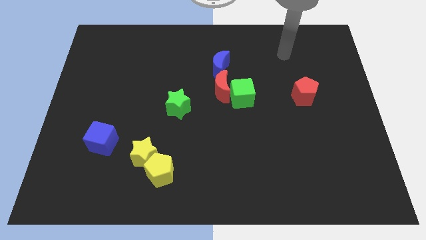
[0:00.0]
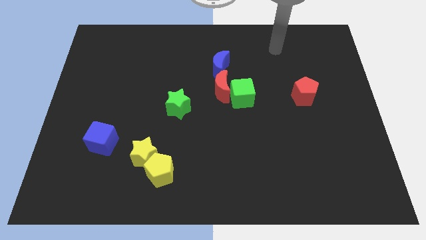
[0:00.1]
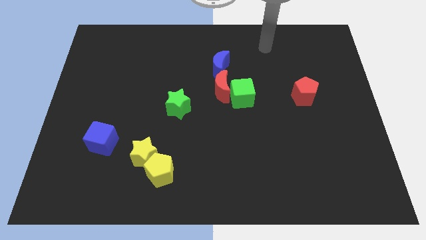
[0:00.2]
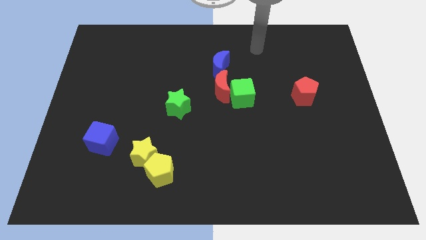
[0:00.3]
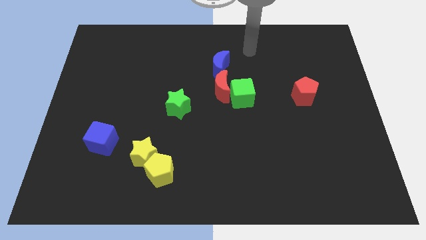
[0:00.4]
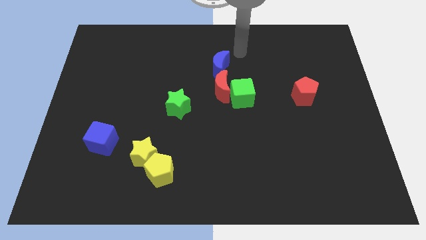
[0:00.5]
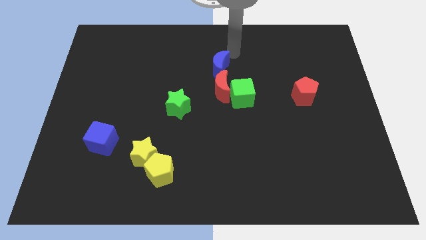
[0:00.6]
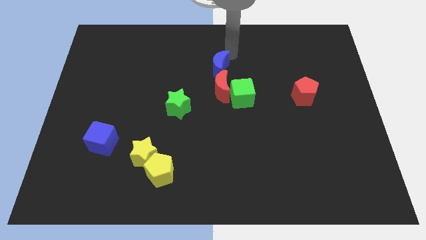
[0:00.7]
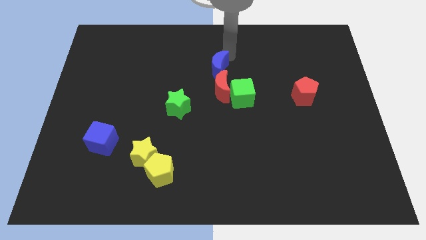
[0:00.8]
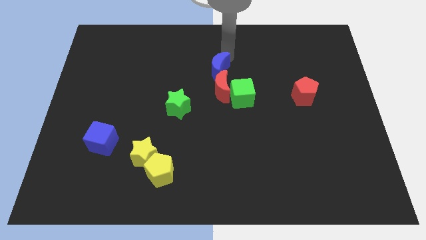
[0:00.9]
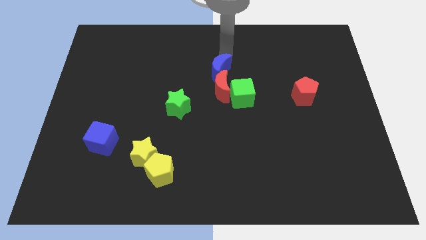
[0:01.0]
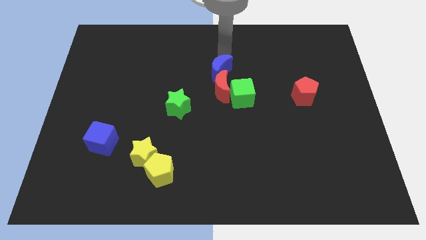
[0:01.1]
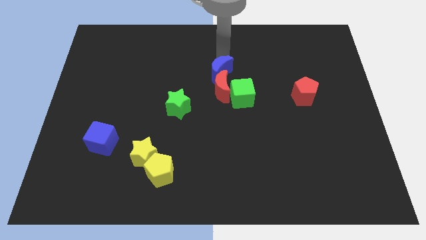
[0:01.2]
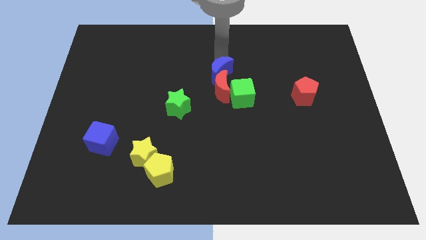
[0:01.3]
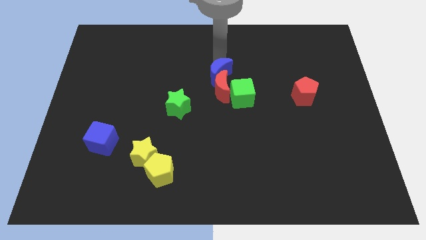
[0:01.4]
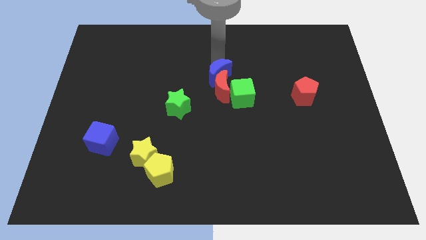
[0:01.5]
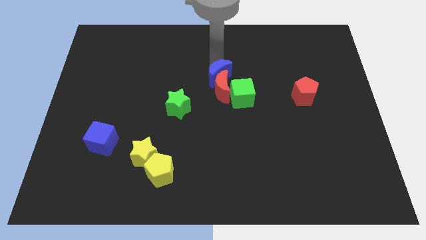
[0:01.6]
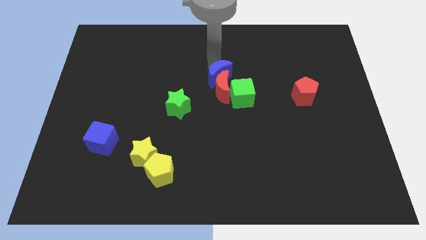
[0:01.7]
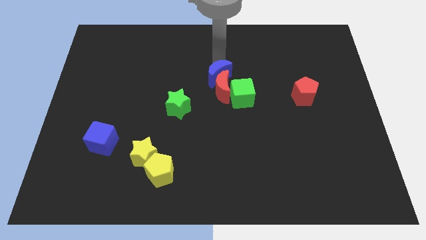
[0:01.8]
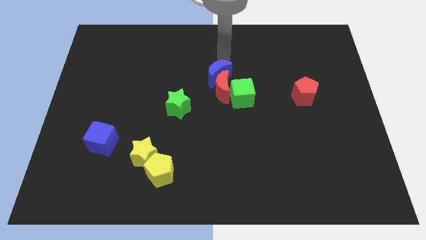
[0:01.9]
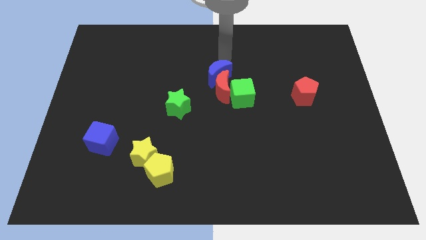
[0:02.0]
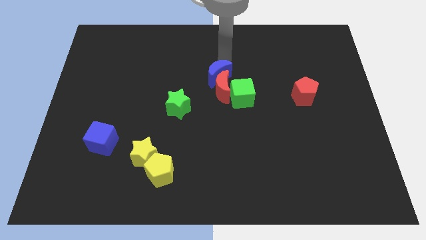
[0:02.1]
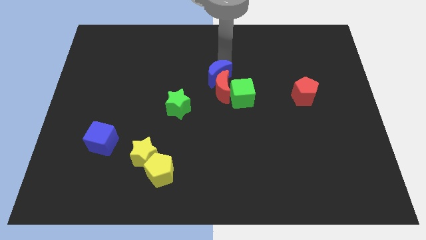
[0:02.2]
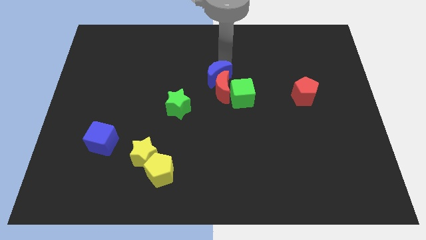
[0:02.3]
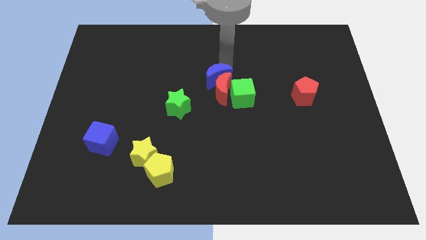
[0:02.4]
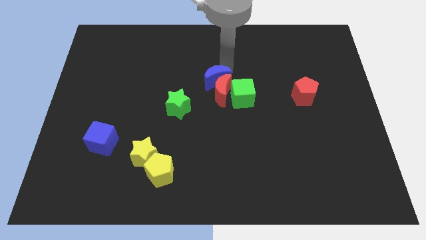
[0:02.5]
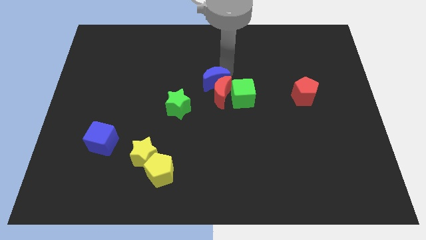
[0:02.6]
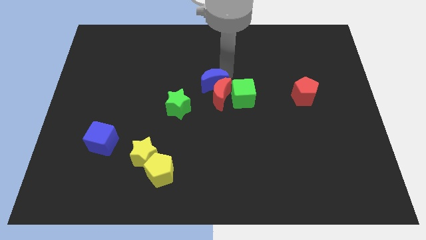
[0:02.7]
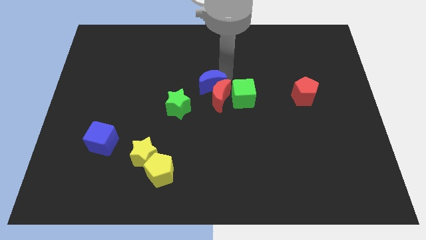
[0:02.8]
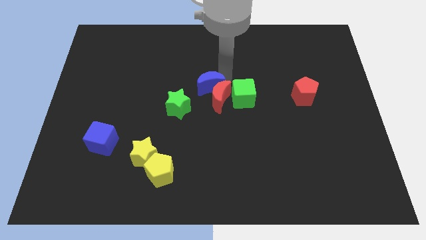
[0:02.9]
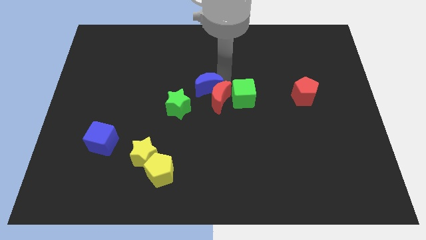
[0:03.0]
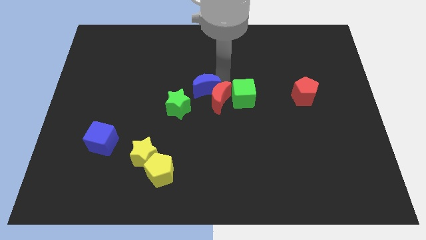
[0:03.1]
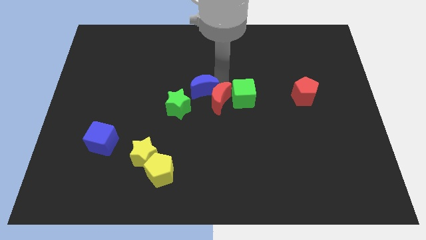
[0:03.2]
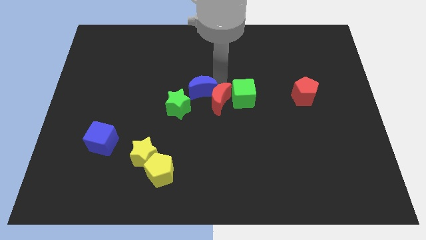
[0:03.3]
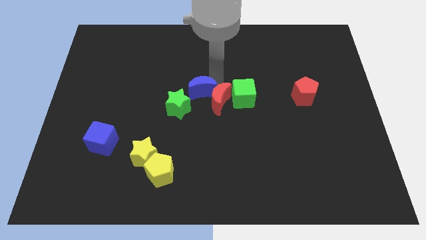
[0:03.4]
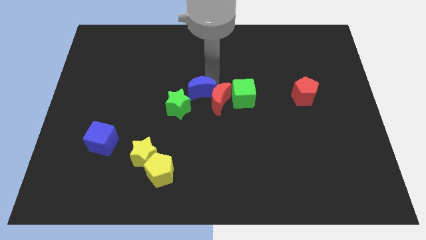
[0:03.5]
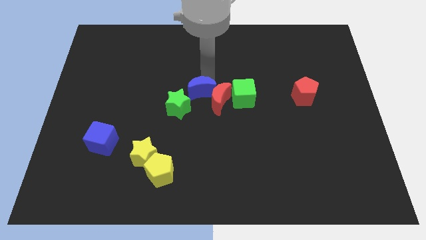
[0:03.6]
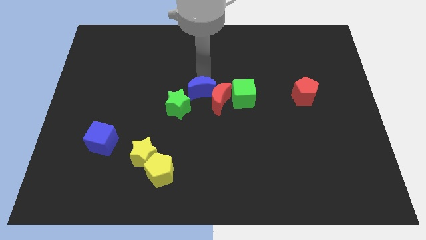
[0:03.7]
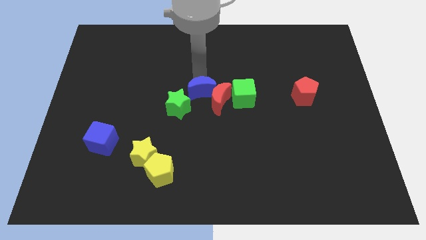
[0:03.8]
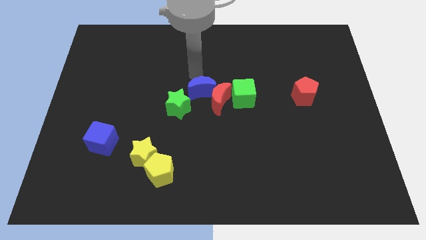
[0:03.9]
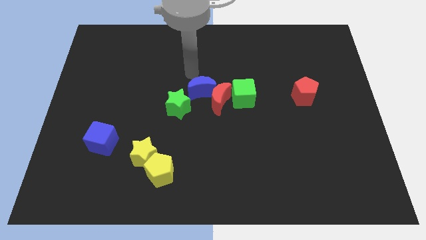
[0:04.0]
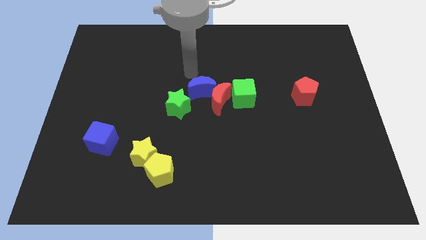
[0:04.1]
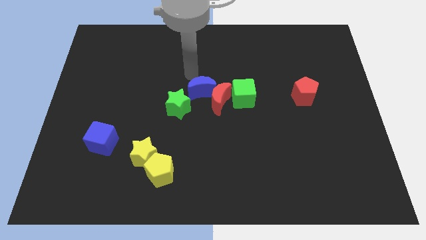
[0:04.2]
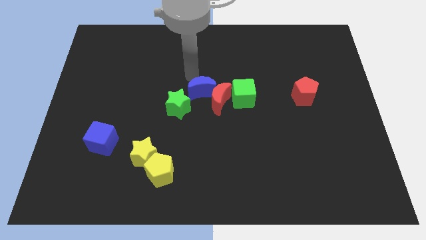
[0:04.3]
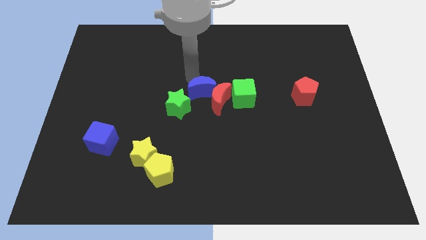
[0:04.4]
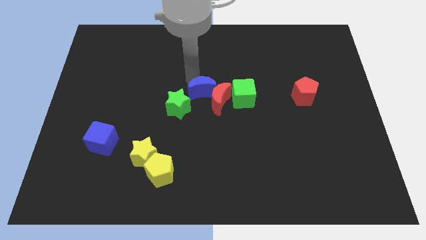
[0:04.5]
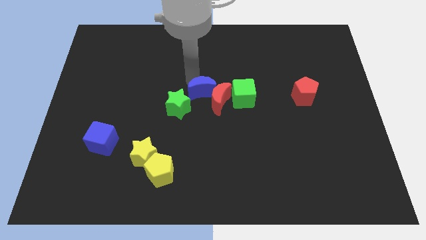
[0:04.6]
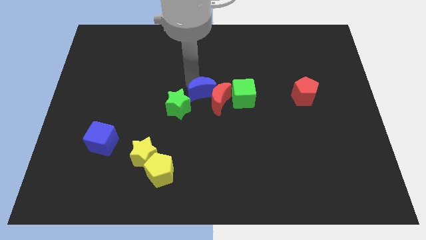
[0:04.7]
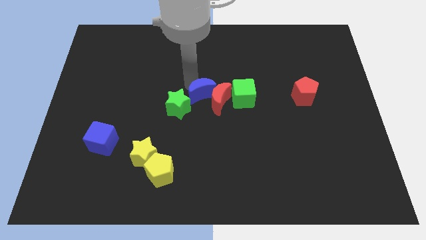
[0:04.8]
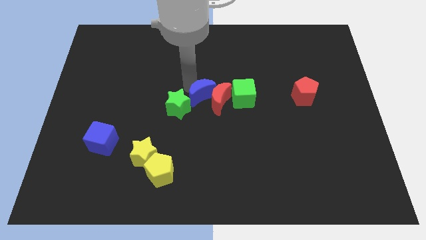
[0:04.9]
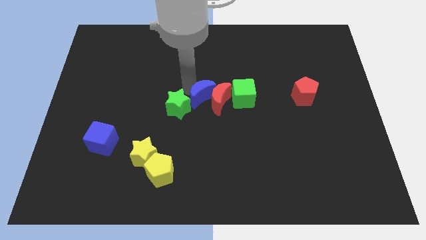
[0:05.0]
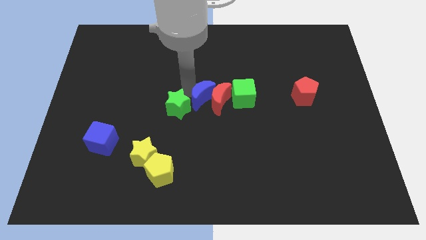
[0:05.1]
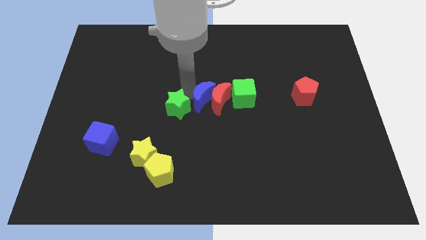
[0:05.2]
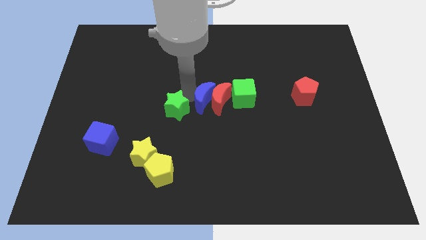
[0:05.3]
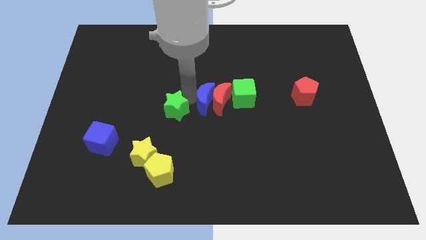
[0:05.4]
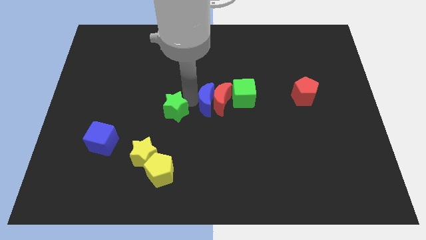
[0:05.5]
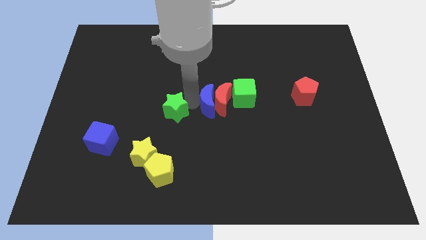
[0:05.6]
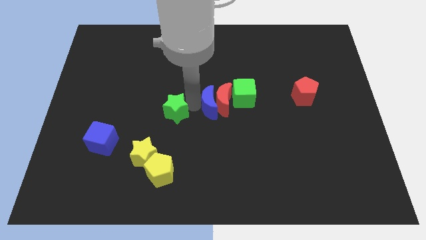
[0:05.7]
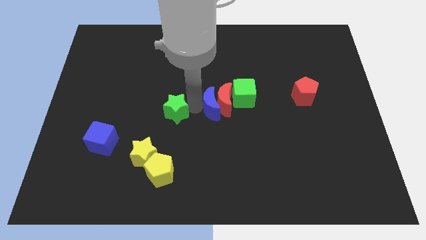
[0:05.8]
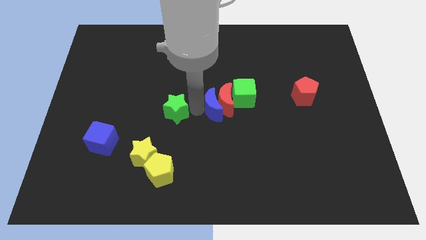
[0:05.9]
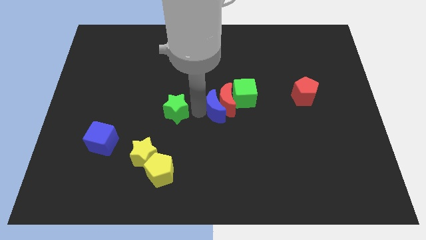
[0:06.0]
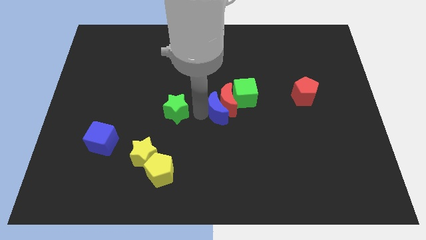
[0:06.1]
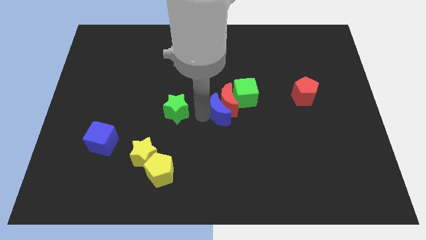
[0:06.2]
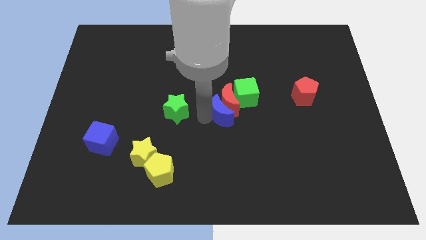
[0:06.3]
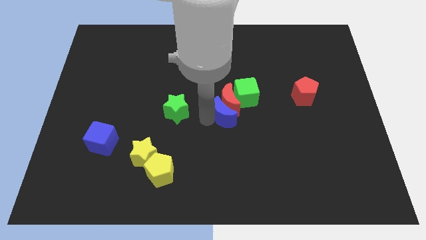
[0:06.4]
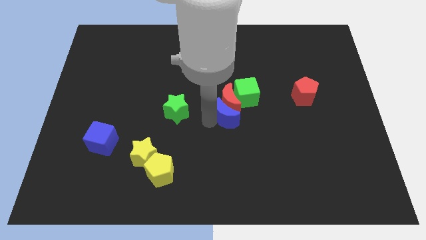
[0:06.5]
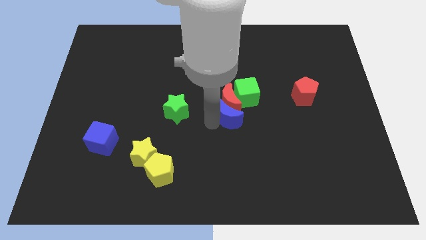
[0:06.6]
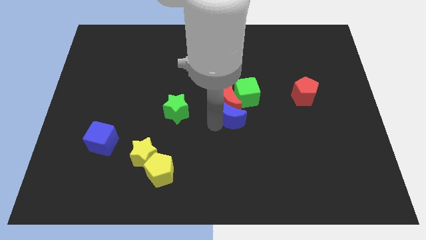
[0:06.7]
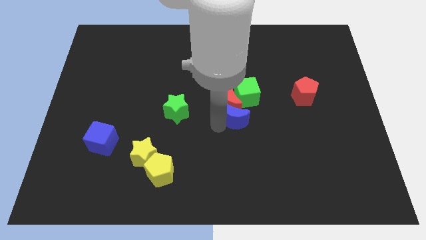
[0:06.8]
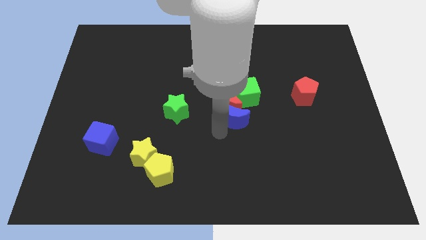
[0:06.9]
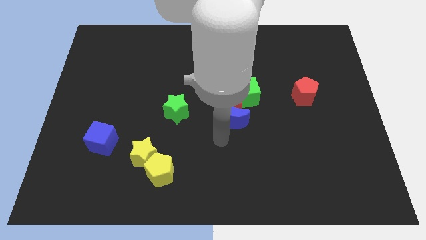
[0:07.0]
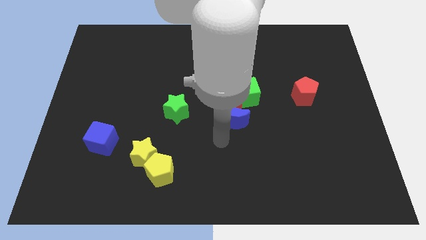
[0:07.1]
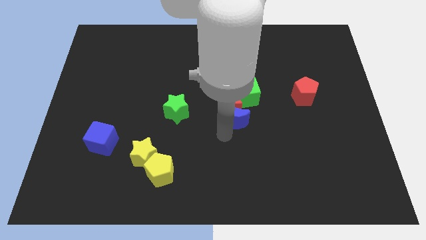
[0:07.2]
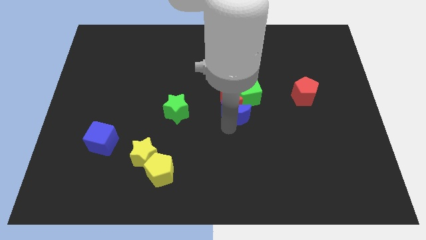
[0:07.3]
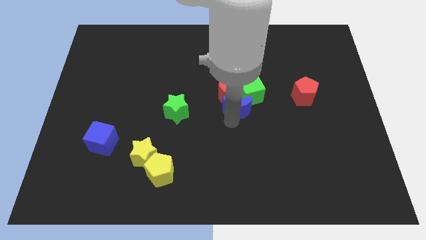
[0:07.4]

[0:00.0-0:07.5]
move the blue moon to the green cube

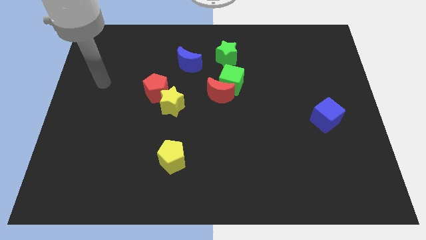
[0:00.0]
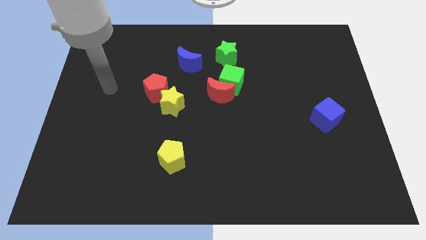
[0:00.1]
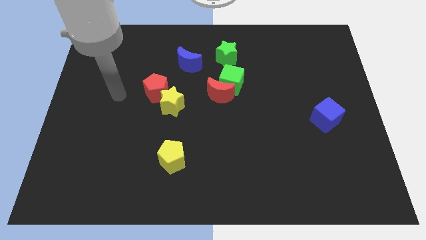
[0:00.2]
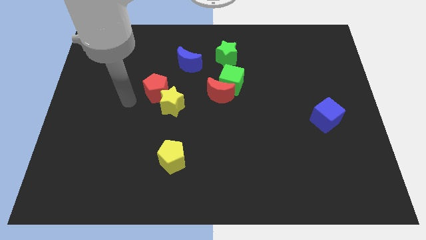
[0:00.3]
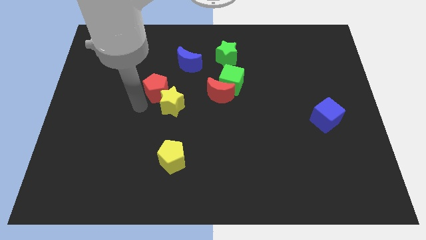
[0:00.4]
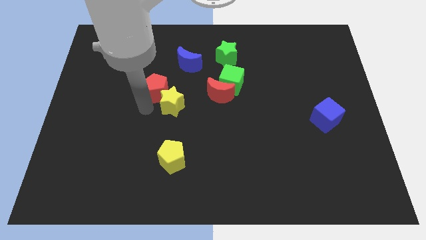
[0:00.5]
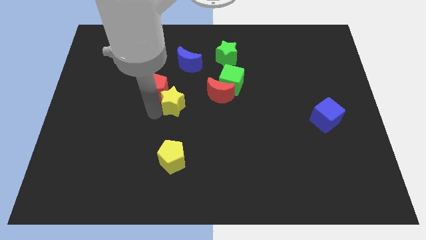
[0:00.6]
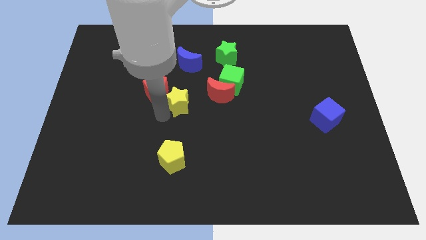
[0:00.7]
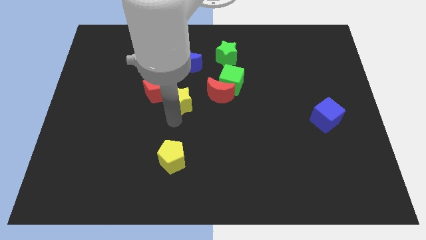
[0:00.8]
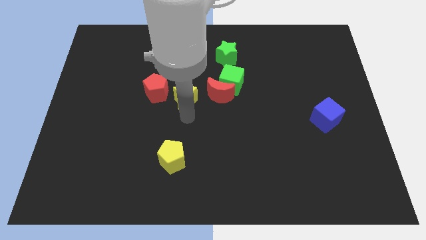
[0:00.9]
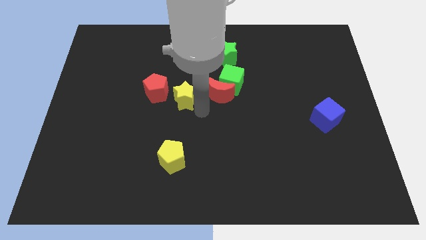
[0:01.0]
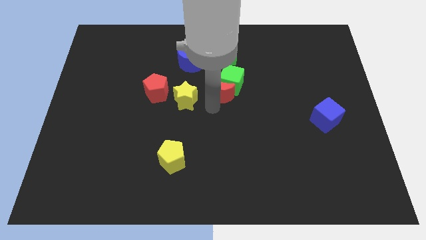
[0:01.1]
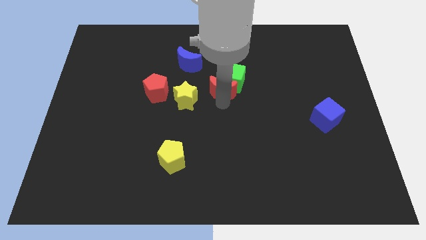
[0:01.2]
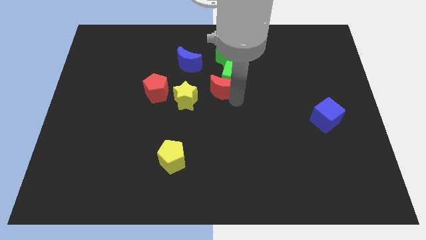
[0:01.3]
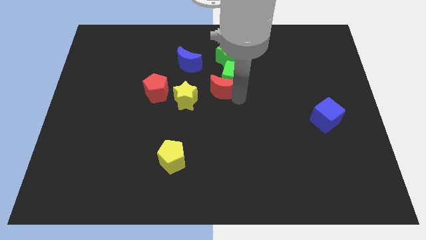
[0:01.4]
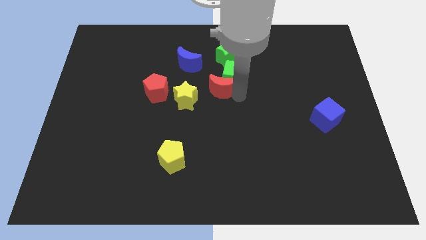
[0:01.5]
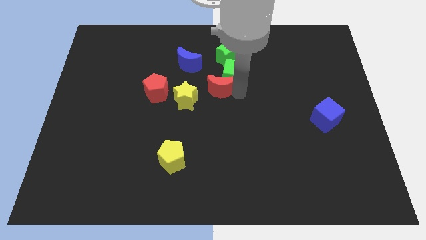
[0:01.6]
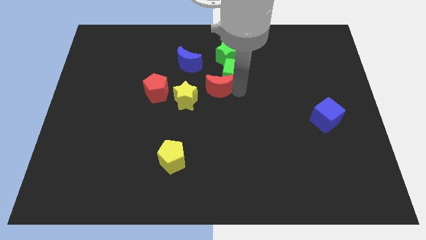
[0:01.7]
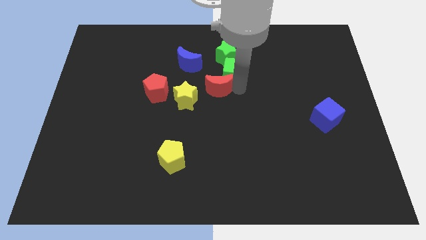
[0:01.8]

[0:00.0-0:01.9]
push the green cube next to the green star
